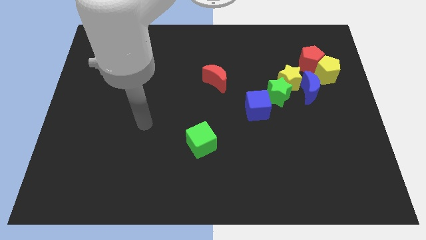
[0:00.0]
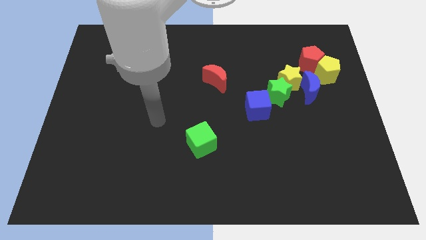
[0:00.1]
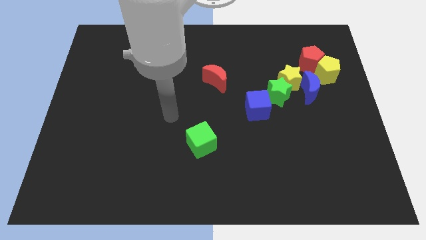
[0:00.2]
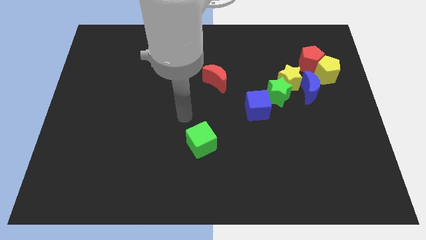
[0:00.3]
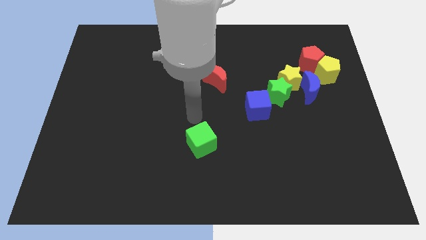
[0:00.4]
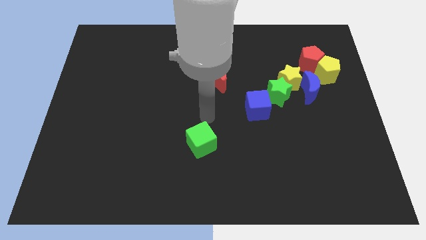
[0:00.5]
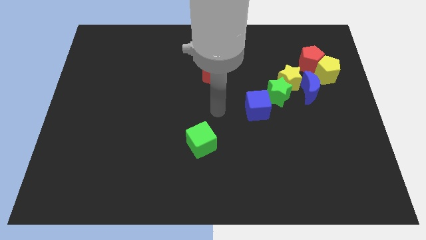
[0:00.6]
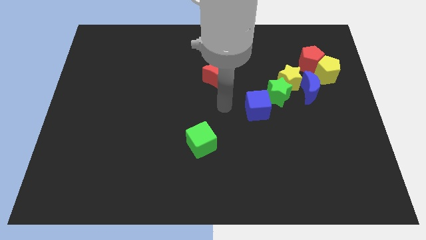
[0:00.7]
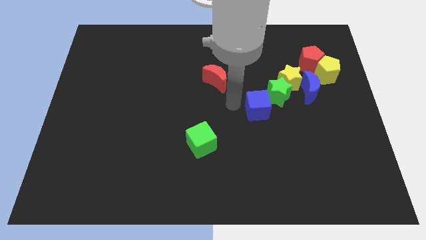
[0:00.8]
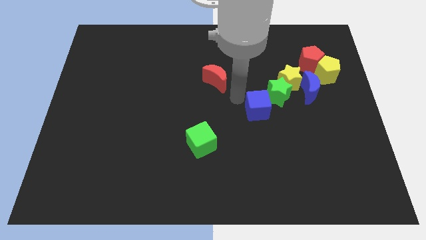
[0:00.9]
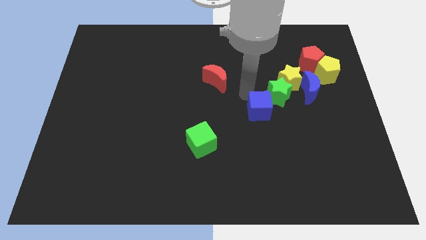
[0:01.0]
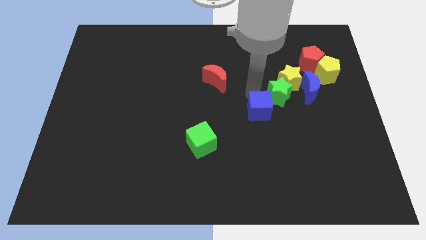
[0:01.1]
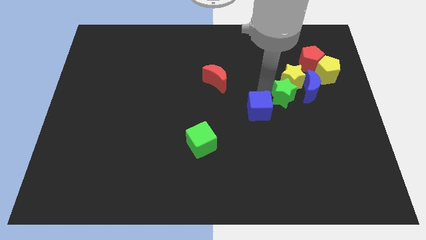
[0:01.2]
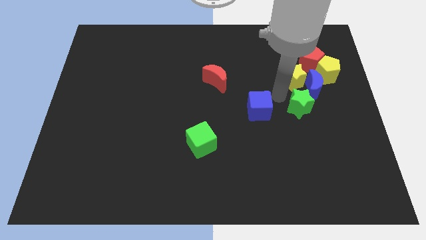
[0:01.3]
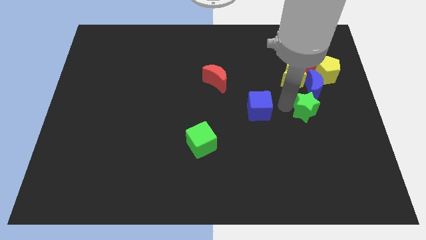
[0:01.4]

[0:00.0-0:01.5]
pull the blue cube apart from the green star

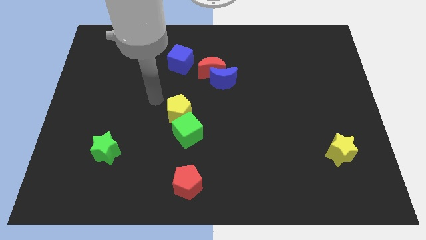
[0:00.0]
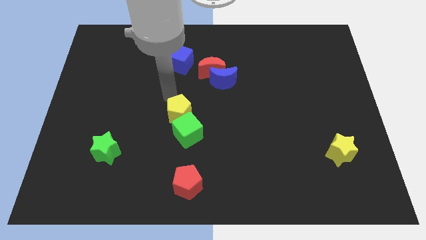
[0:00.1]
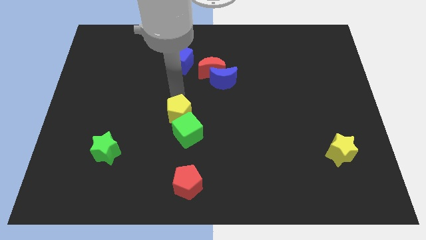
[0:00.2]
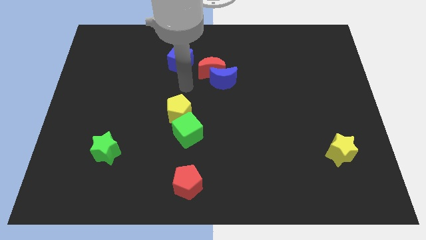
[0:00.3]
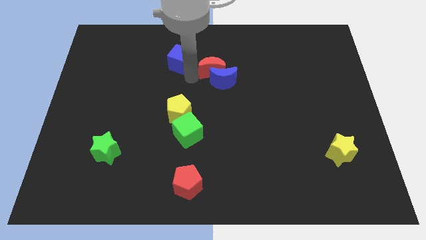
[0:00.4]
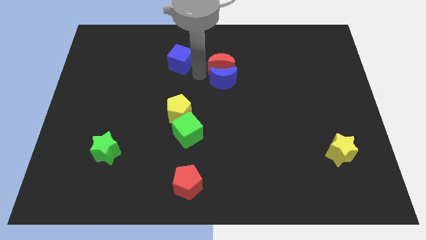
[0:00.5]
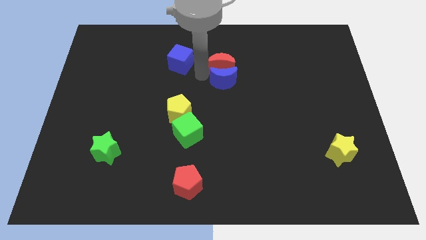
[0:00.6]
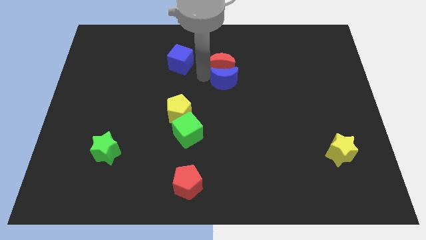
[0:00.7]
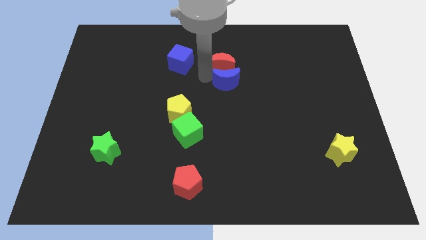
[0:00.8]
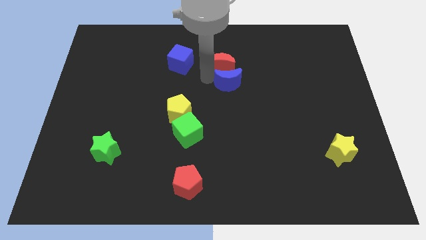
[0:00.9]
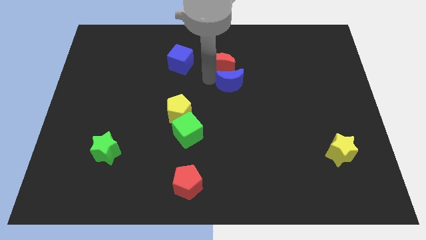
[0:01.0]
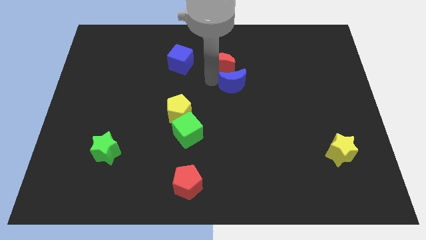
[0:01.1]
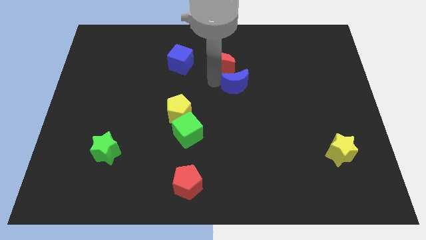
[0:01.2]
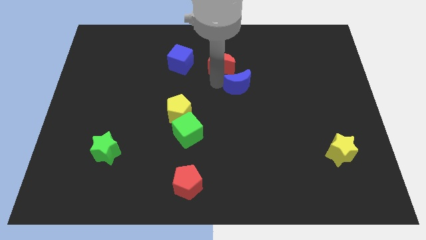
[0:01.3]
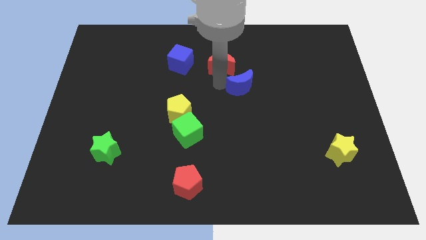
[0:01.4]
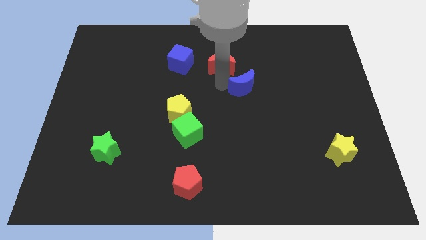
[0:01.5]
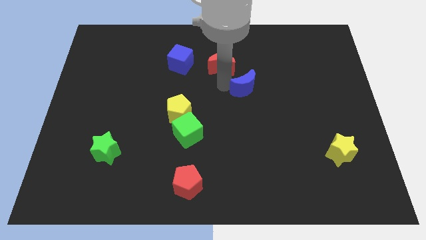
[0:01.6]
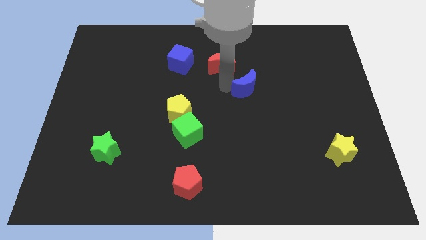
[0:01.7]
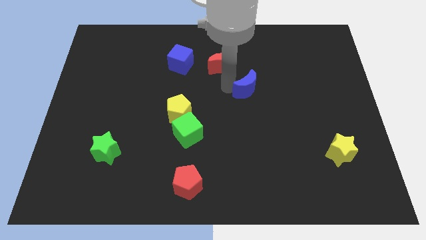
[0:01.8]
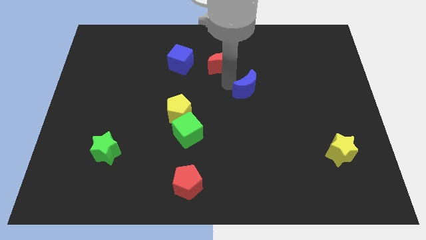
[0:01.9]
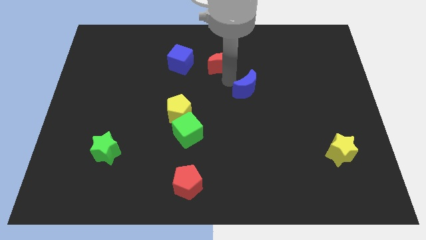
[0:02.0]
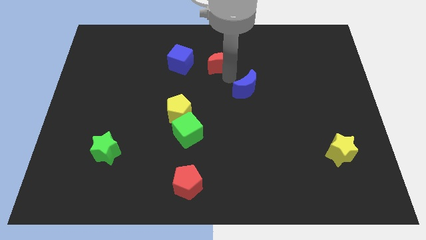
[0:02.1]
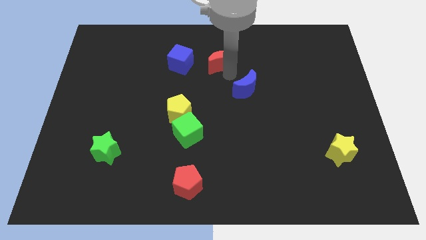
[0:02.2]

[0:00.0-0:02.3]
separate the blue moon from the red moon

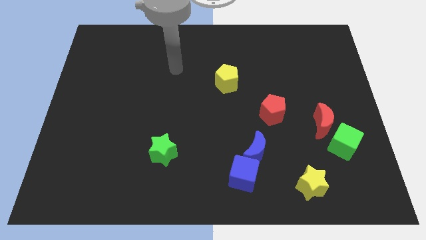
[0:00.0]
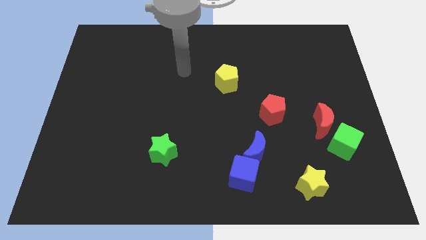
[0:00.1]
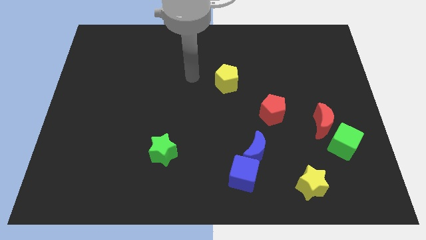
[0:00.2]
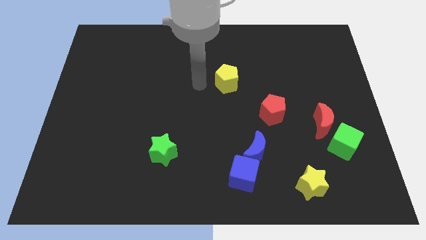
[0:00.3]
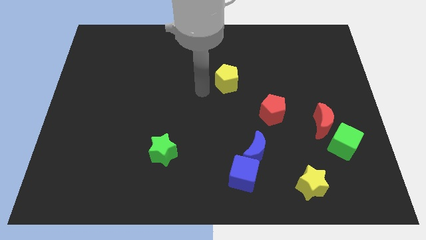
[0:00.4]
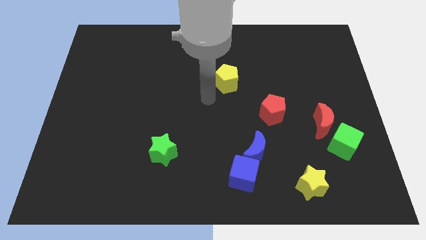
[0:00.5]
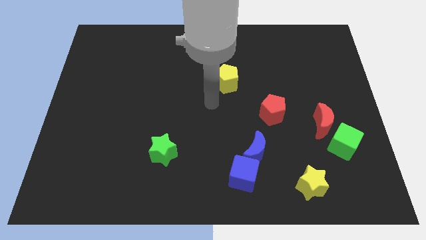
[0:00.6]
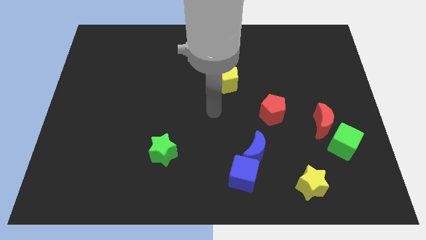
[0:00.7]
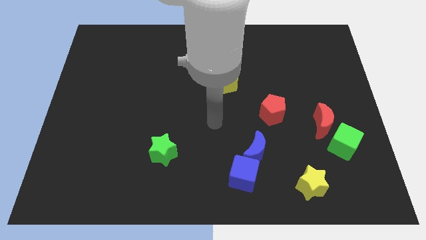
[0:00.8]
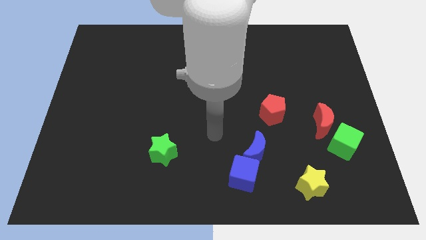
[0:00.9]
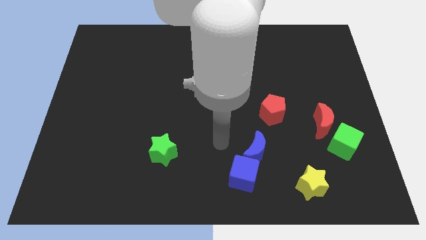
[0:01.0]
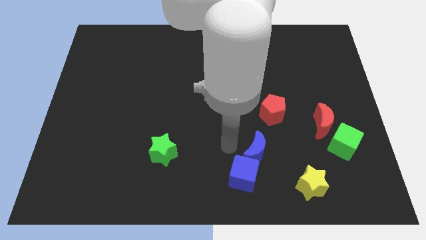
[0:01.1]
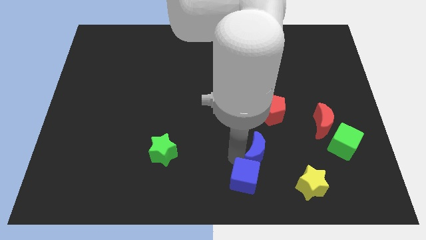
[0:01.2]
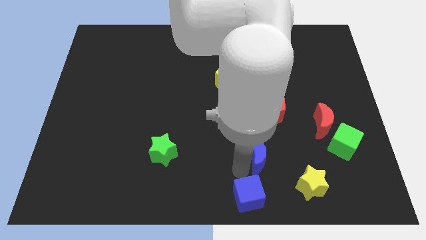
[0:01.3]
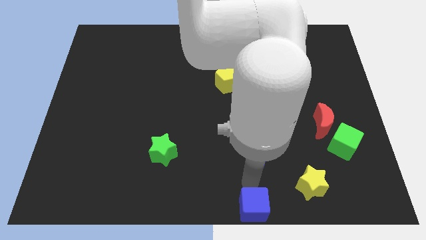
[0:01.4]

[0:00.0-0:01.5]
separate the blue moon from the blue cube

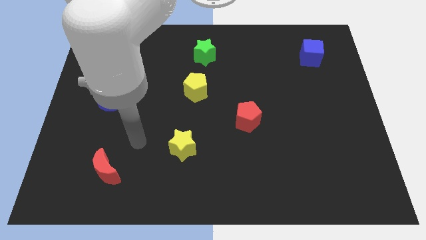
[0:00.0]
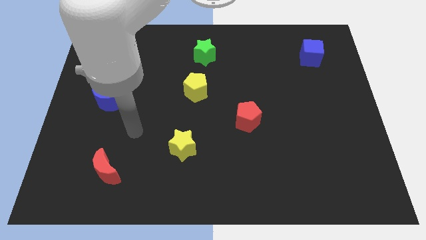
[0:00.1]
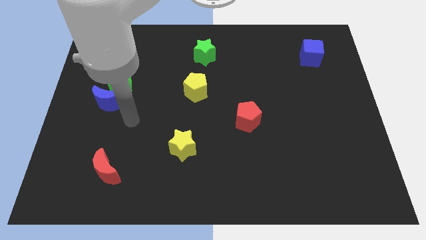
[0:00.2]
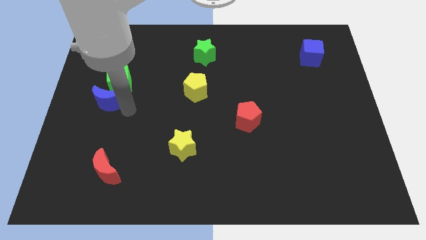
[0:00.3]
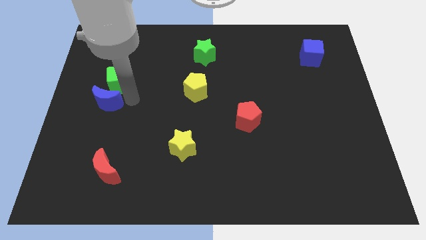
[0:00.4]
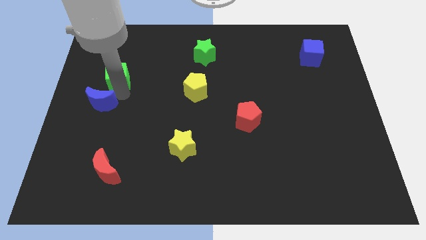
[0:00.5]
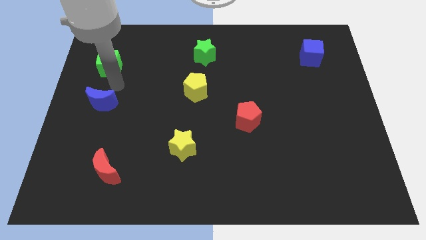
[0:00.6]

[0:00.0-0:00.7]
pull the blue moon apart from the green cube

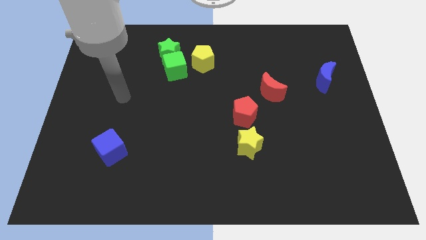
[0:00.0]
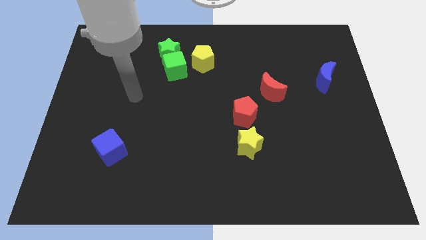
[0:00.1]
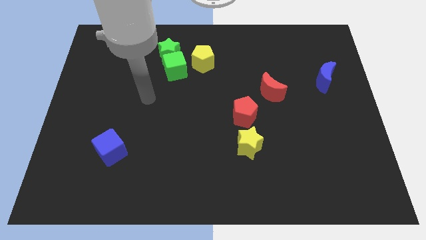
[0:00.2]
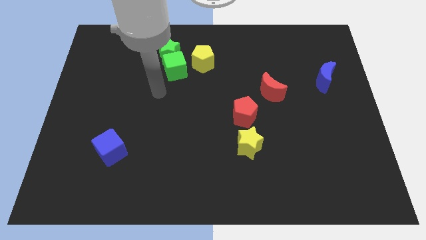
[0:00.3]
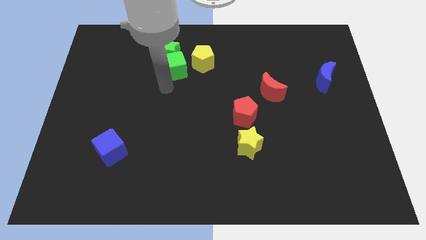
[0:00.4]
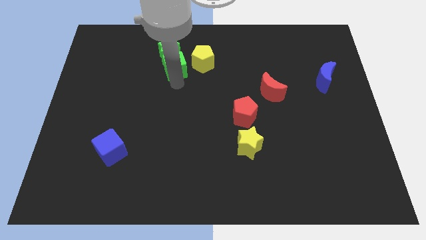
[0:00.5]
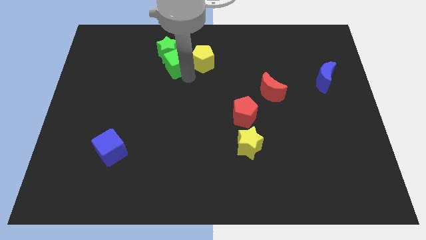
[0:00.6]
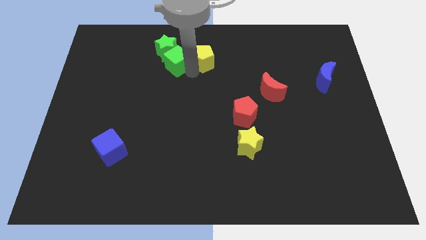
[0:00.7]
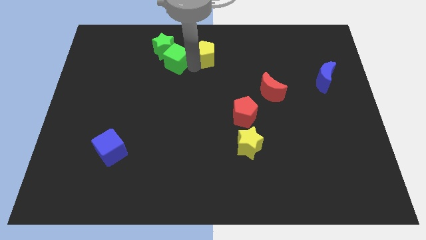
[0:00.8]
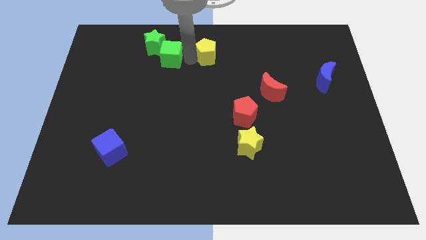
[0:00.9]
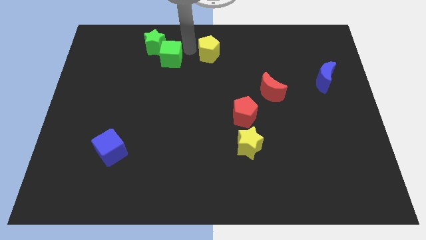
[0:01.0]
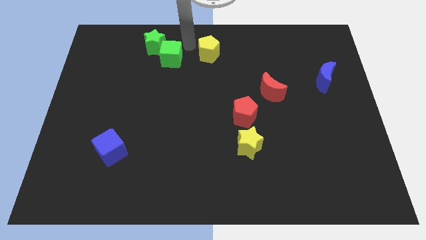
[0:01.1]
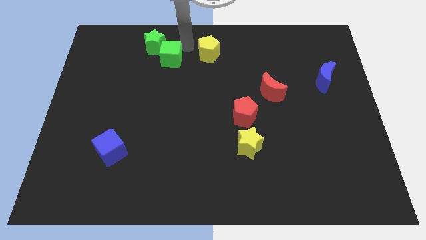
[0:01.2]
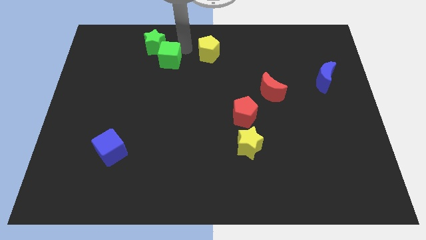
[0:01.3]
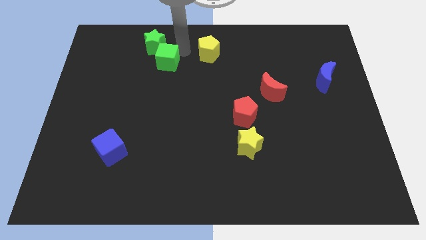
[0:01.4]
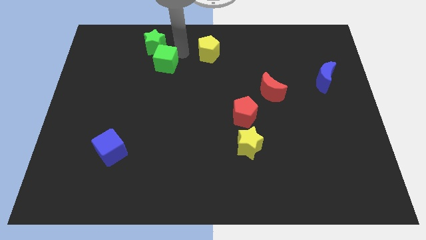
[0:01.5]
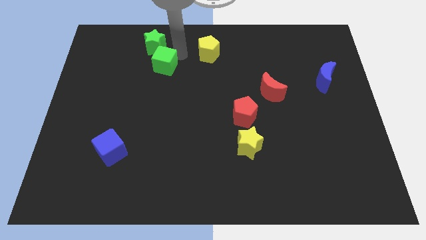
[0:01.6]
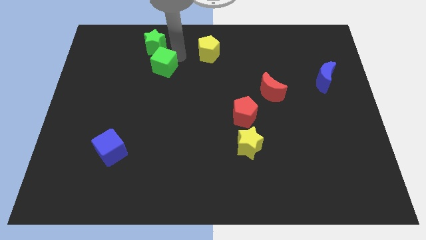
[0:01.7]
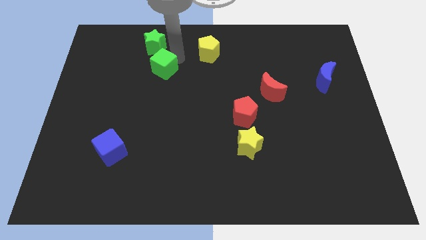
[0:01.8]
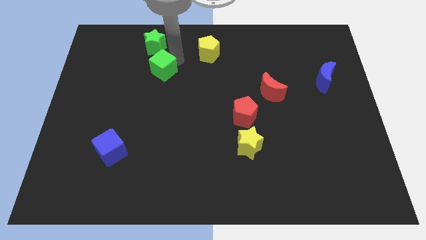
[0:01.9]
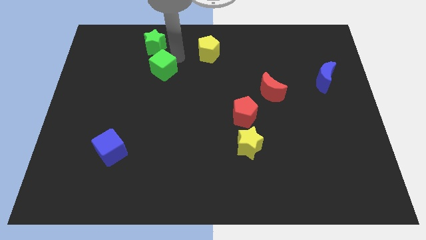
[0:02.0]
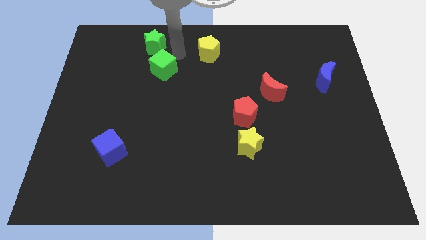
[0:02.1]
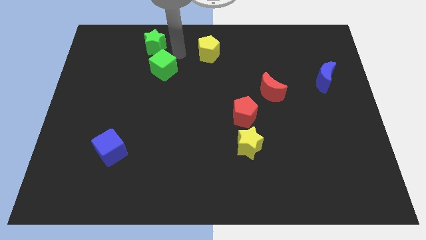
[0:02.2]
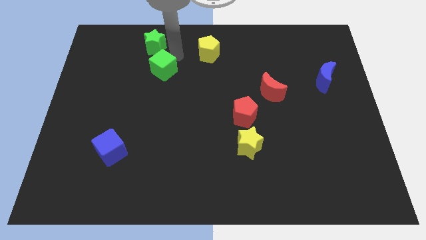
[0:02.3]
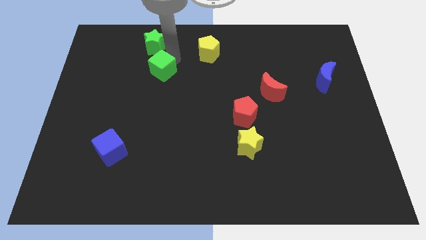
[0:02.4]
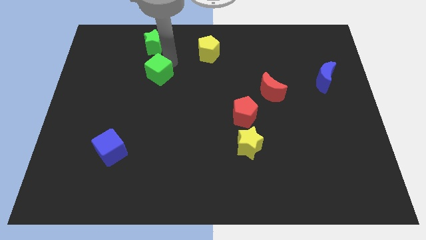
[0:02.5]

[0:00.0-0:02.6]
separate the green cube from the green star and yellow pentagon

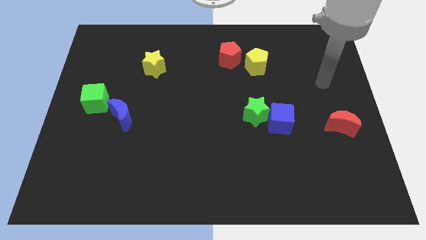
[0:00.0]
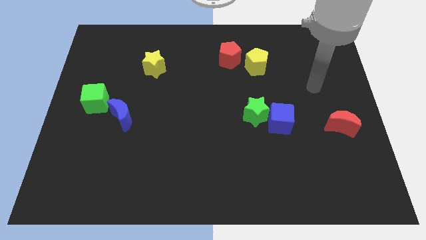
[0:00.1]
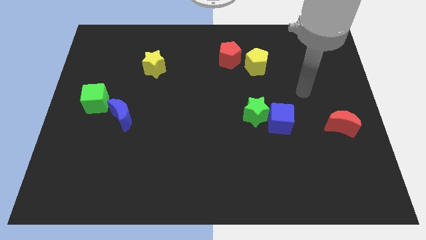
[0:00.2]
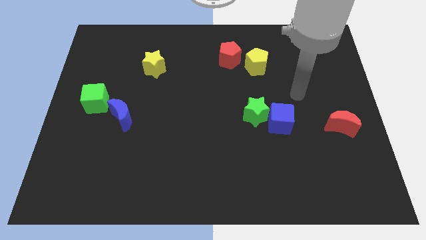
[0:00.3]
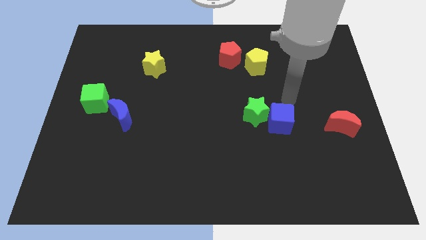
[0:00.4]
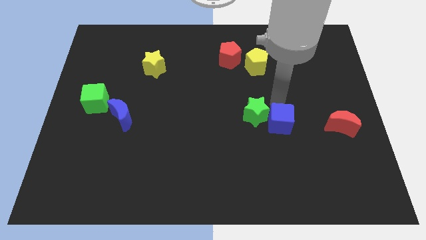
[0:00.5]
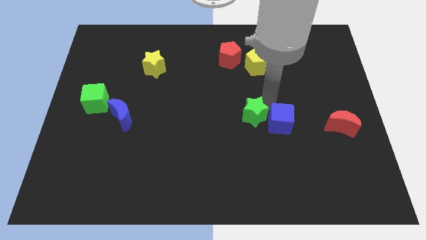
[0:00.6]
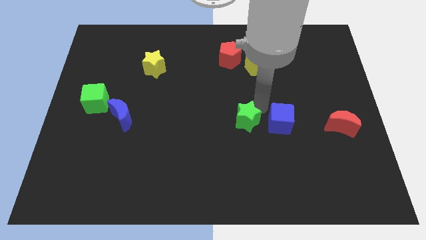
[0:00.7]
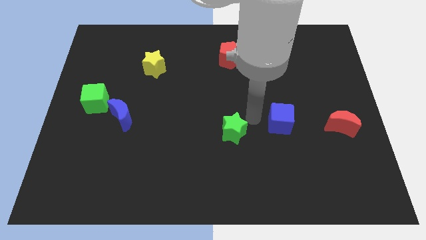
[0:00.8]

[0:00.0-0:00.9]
move the blue cube away from the green star

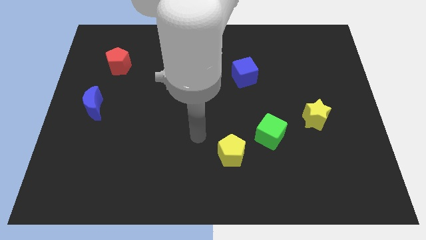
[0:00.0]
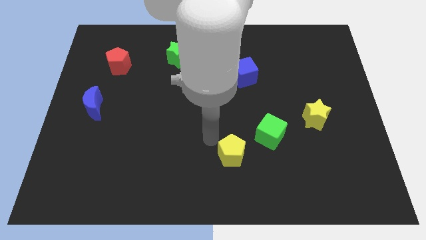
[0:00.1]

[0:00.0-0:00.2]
move the green cube away from the yellow pentagon
